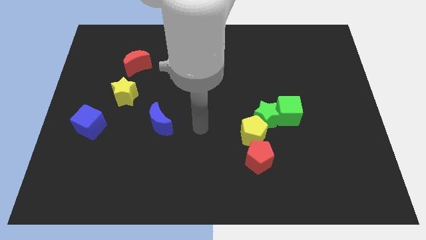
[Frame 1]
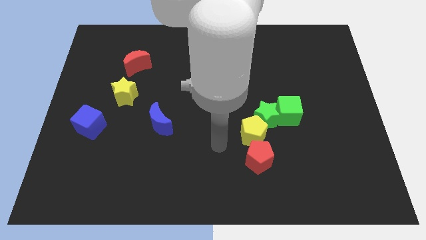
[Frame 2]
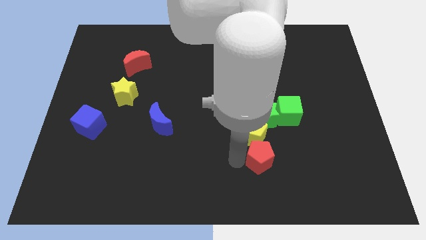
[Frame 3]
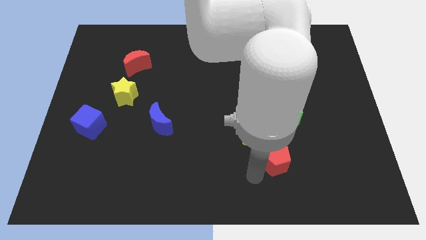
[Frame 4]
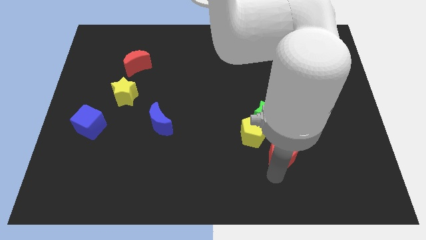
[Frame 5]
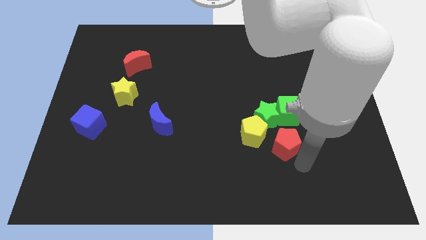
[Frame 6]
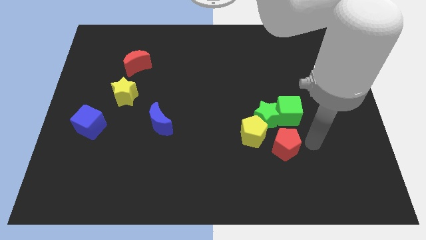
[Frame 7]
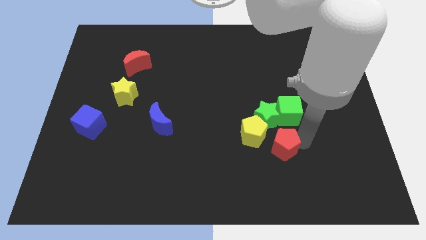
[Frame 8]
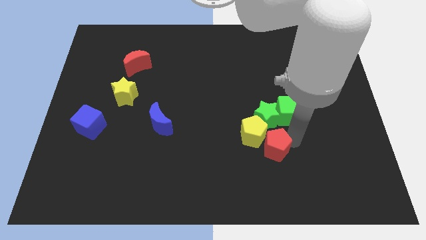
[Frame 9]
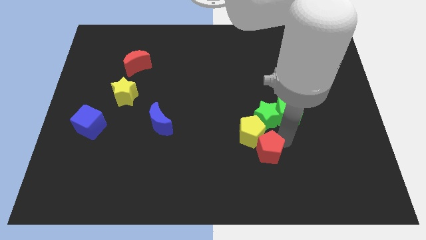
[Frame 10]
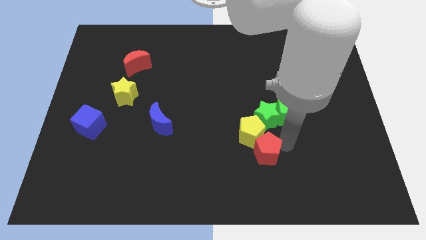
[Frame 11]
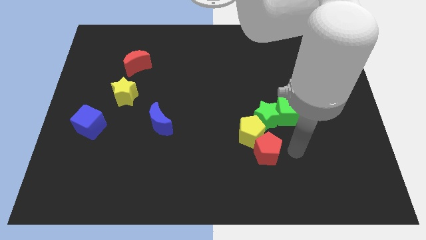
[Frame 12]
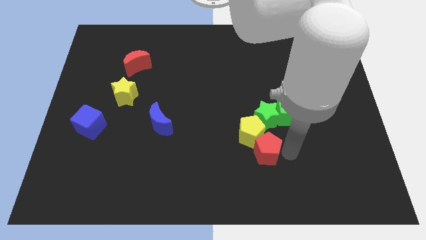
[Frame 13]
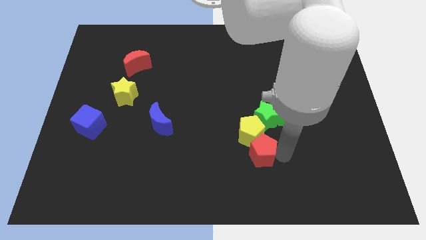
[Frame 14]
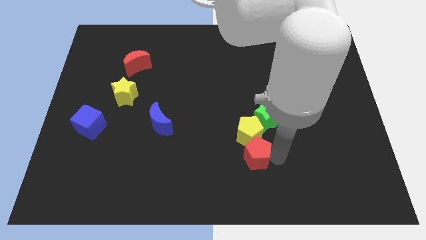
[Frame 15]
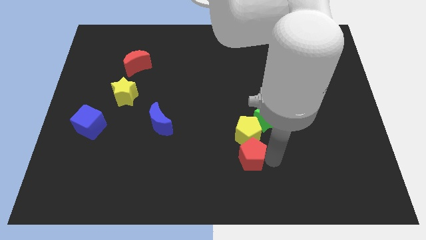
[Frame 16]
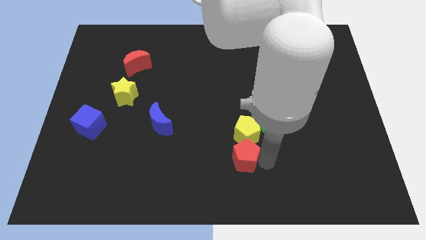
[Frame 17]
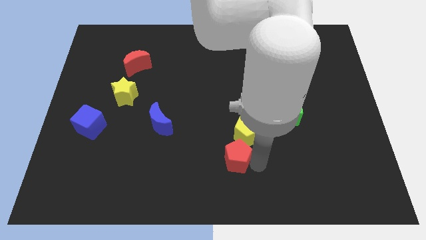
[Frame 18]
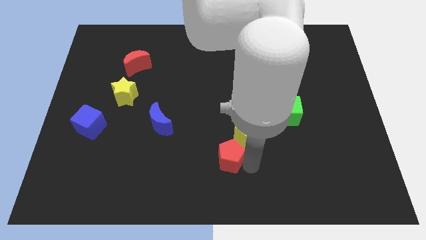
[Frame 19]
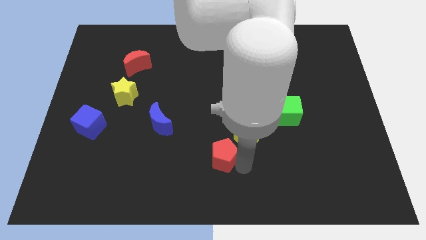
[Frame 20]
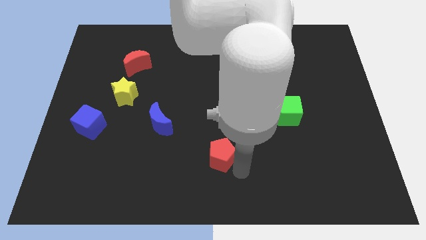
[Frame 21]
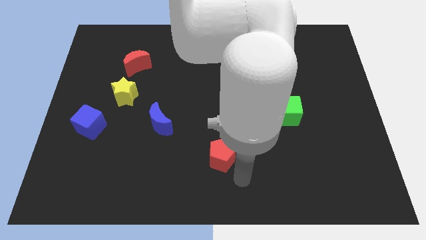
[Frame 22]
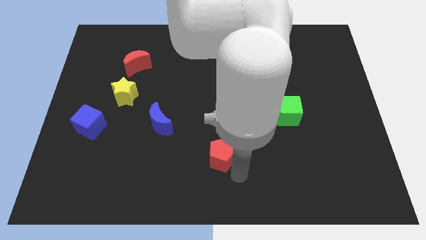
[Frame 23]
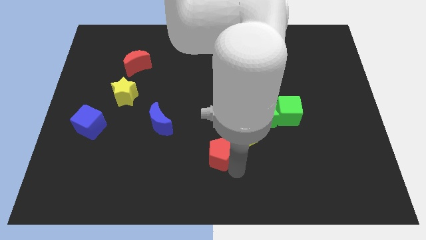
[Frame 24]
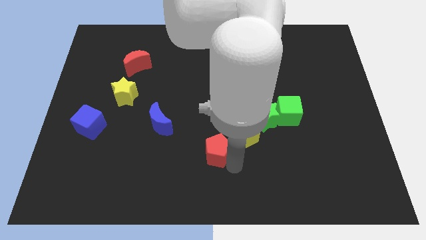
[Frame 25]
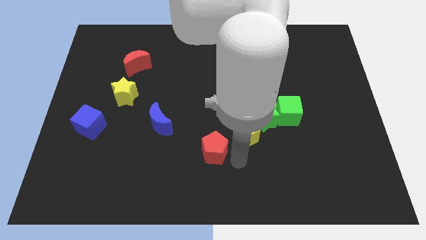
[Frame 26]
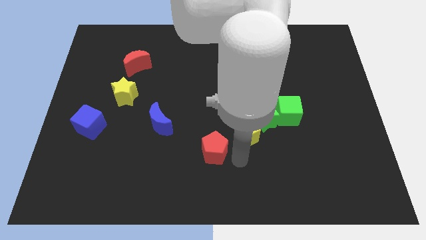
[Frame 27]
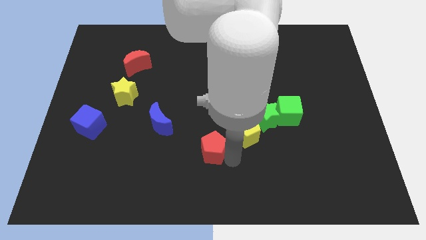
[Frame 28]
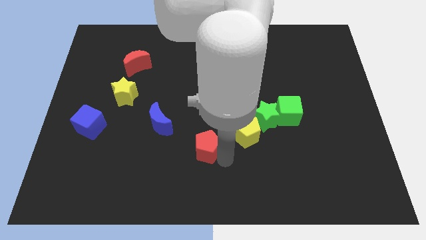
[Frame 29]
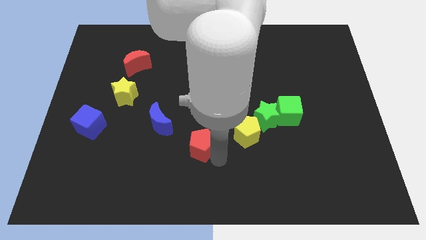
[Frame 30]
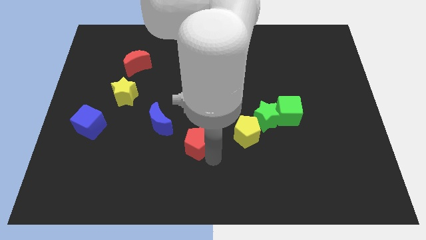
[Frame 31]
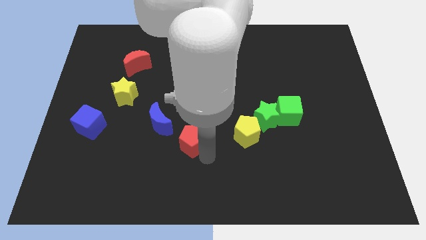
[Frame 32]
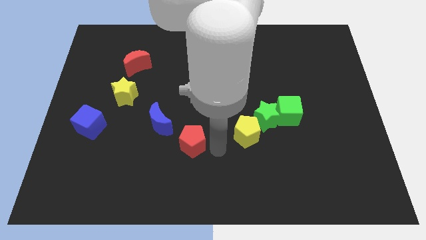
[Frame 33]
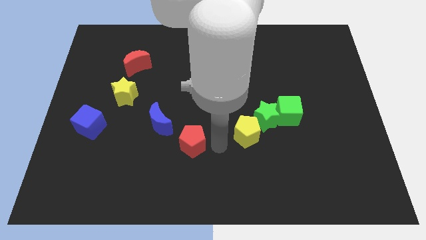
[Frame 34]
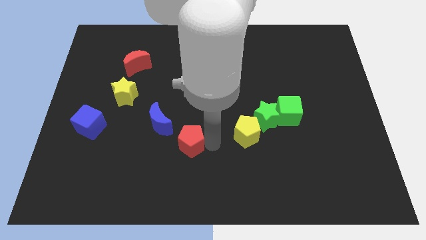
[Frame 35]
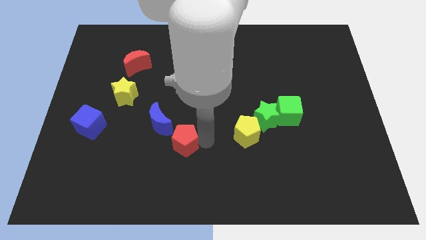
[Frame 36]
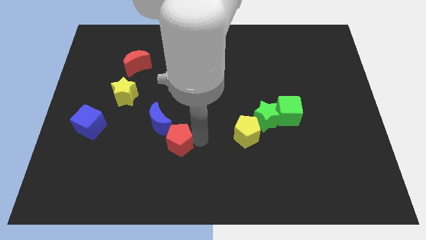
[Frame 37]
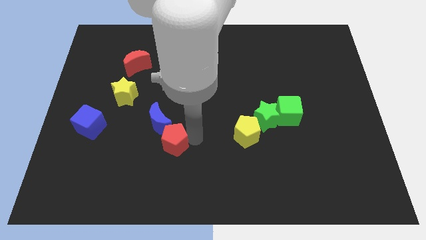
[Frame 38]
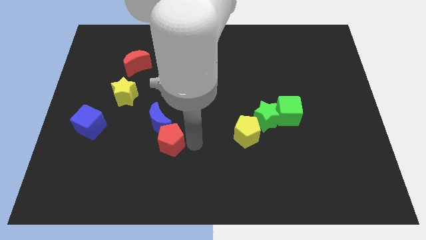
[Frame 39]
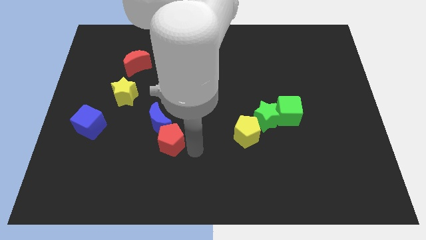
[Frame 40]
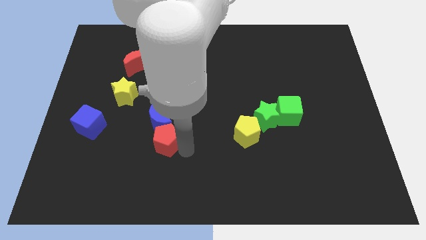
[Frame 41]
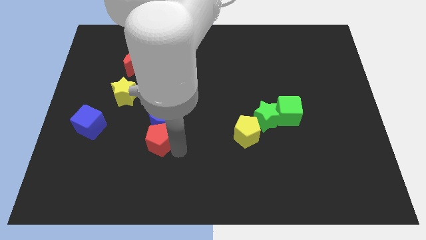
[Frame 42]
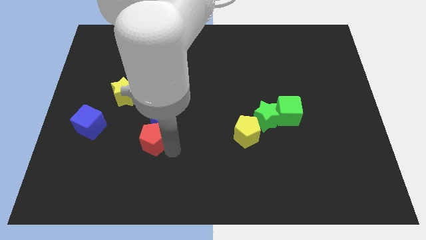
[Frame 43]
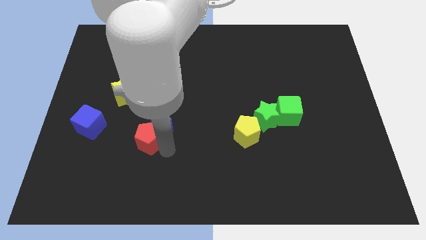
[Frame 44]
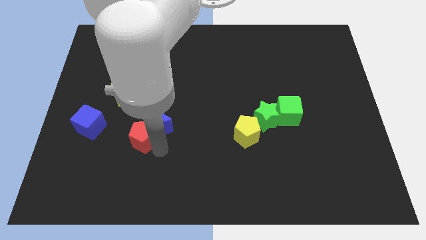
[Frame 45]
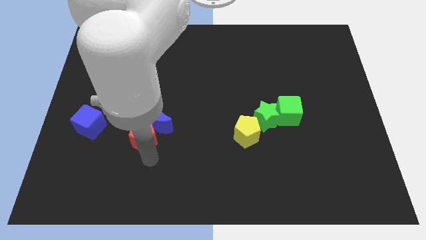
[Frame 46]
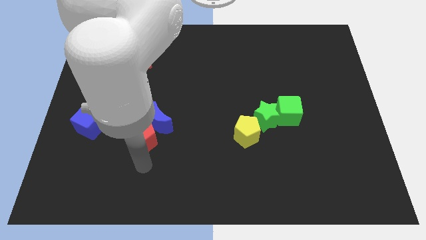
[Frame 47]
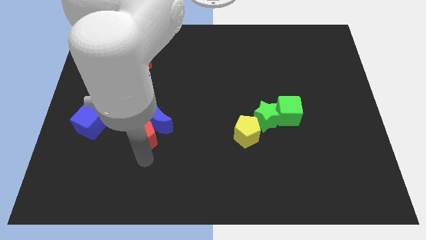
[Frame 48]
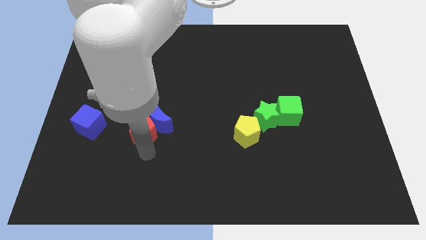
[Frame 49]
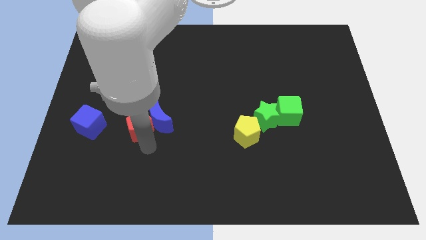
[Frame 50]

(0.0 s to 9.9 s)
slide the red pentagon to the bottom right of the yellow star

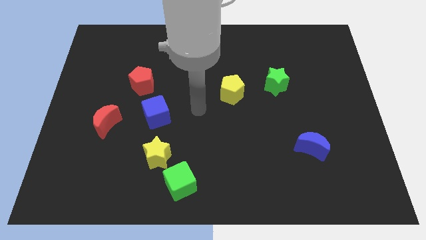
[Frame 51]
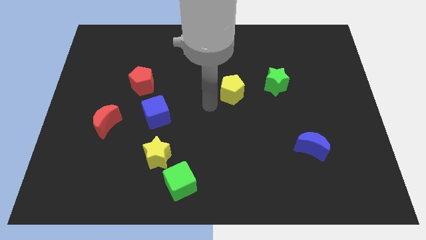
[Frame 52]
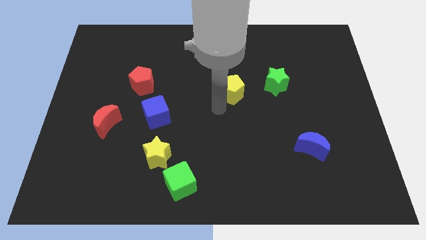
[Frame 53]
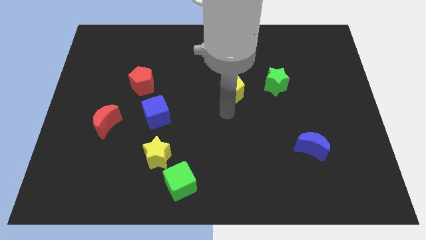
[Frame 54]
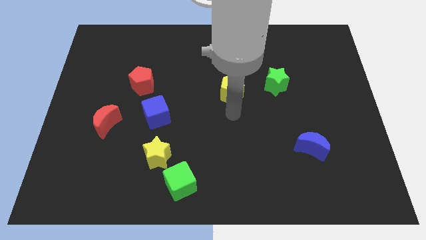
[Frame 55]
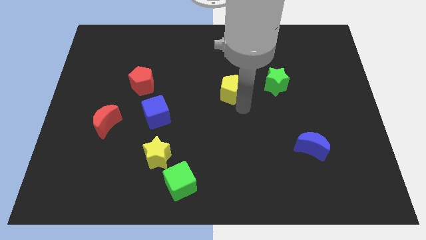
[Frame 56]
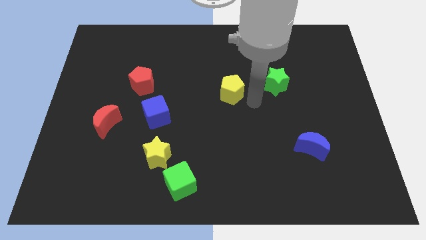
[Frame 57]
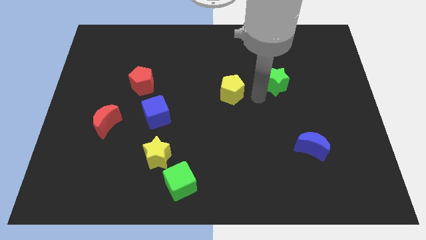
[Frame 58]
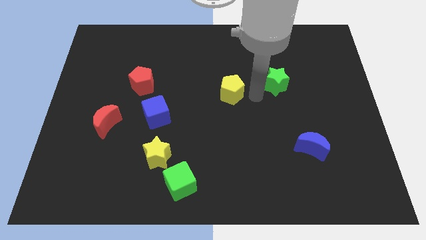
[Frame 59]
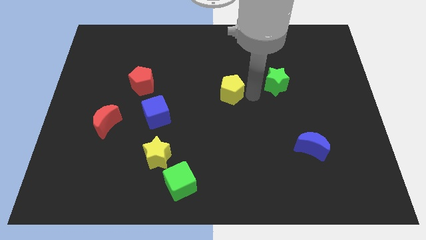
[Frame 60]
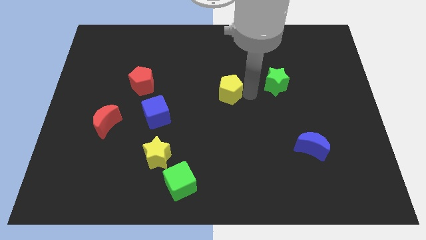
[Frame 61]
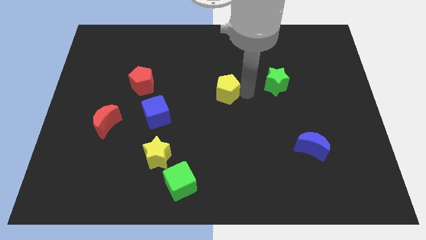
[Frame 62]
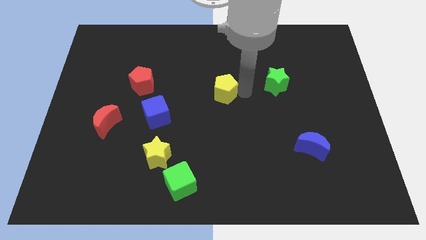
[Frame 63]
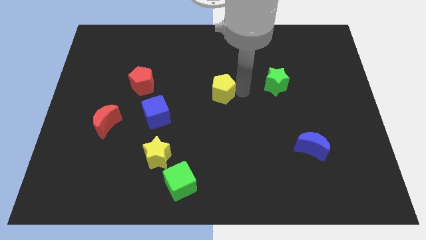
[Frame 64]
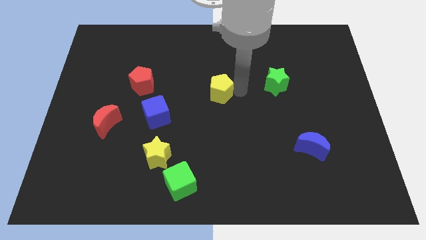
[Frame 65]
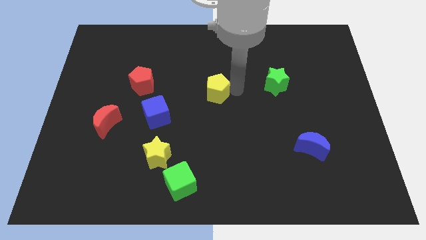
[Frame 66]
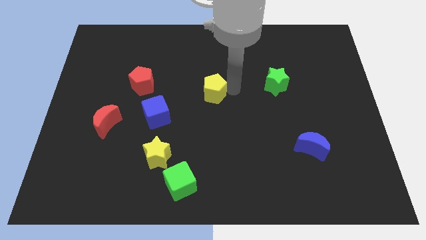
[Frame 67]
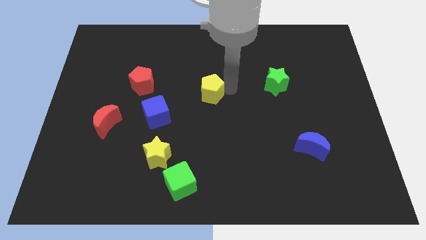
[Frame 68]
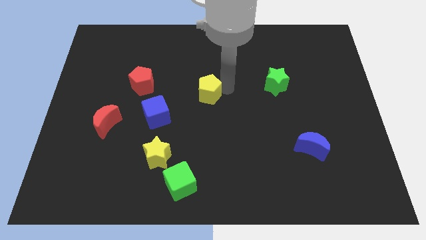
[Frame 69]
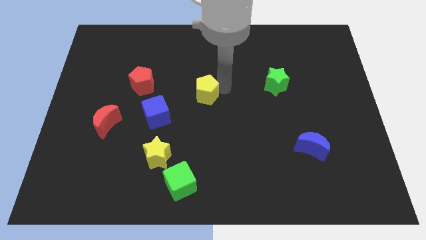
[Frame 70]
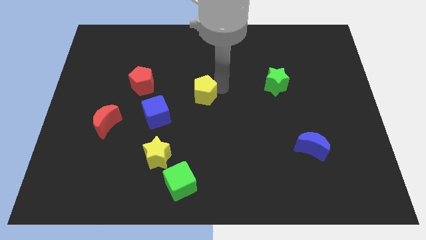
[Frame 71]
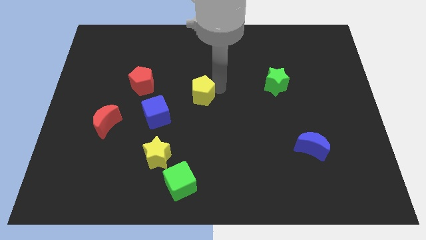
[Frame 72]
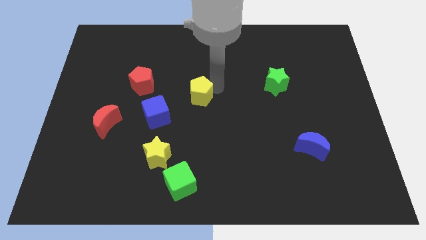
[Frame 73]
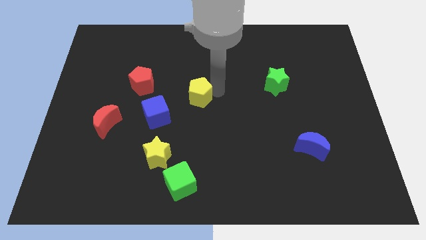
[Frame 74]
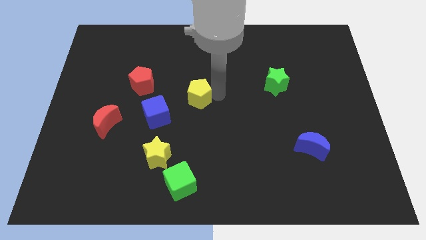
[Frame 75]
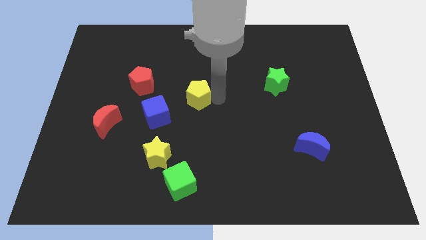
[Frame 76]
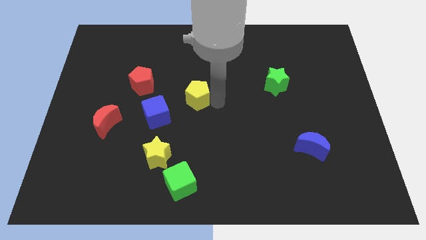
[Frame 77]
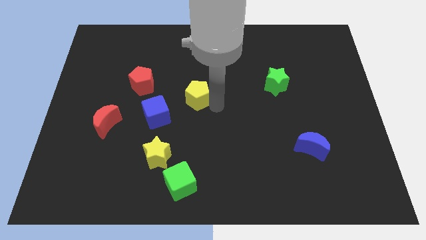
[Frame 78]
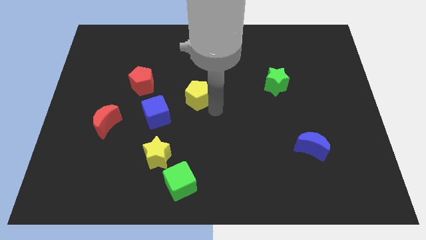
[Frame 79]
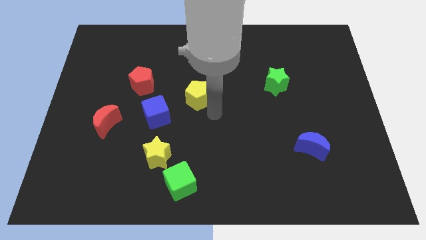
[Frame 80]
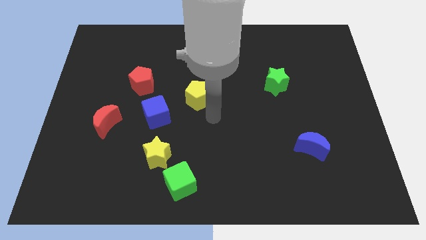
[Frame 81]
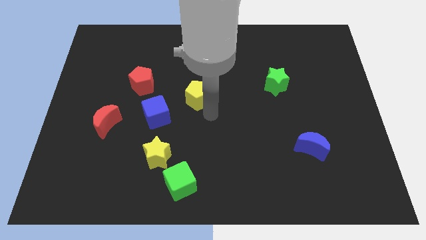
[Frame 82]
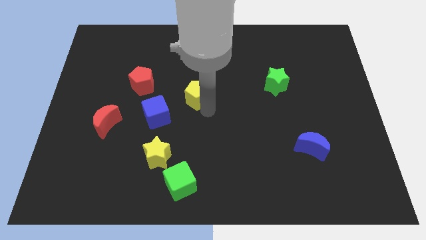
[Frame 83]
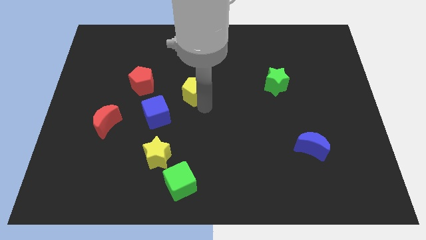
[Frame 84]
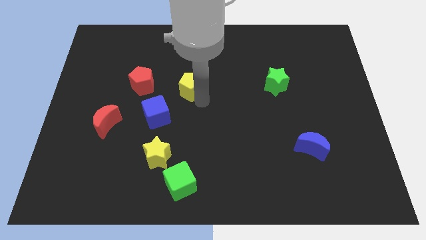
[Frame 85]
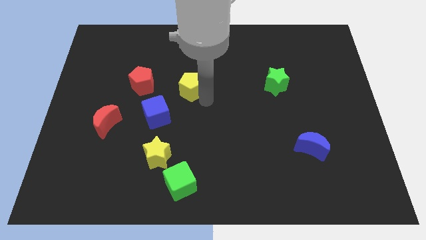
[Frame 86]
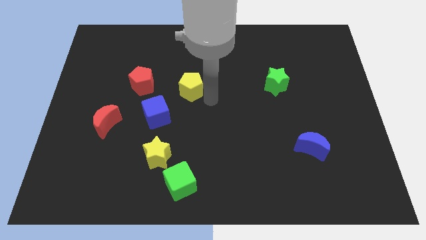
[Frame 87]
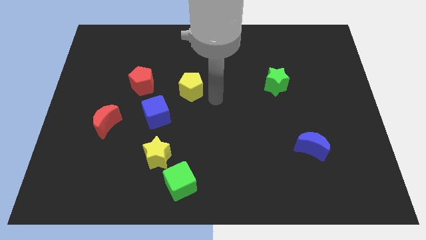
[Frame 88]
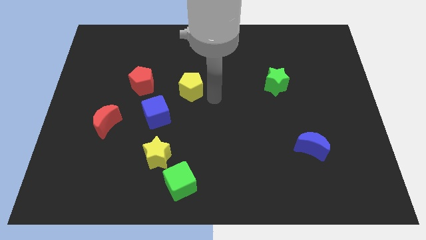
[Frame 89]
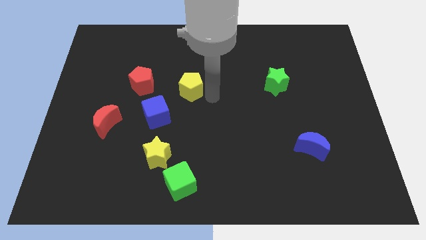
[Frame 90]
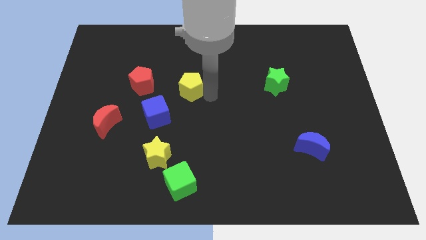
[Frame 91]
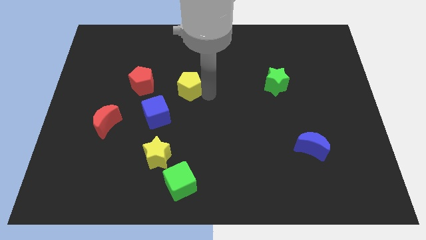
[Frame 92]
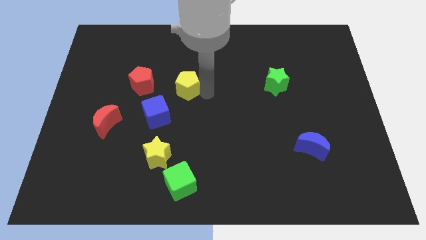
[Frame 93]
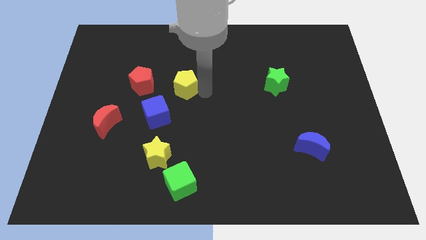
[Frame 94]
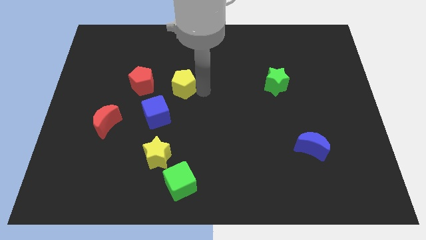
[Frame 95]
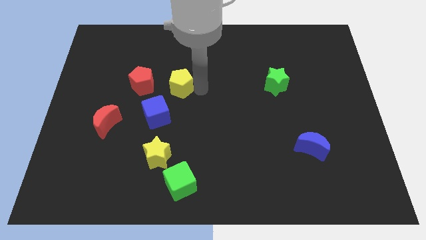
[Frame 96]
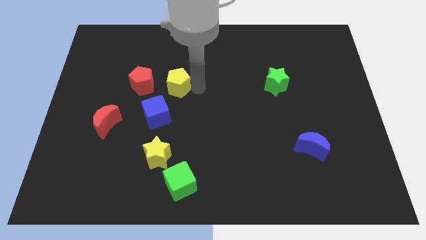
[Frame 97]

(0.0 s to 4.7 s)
move the yellow pentagon above the blue cube
